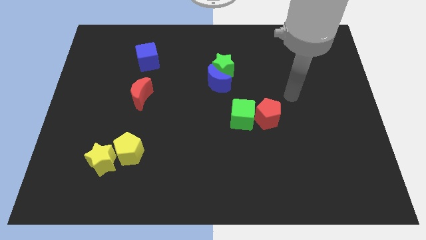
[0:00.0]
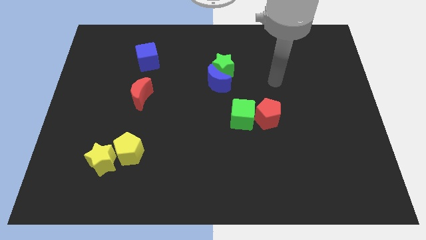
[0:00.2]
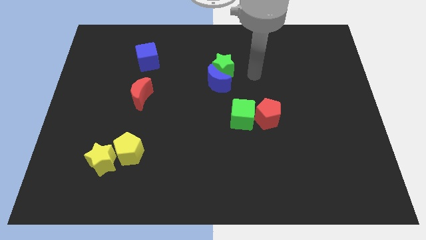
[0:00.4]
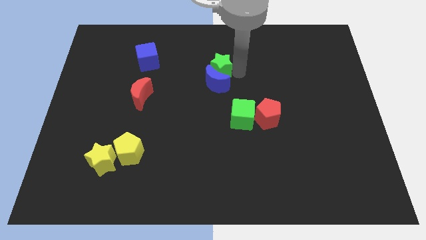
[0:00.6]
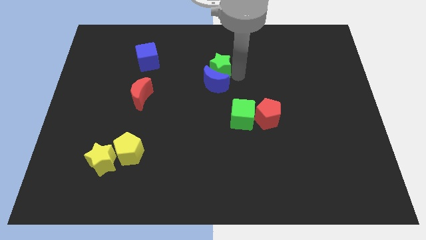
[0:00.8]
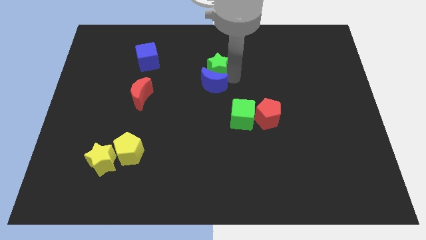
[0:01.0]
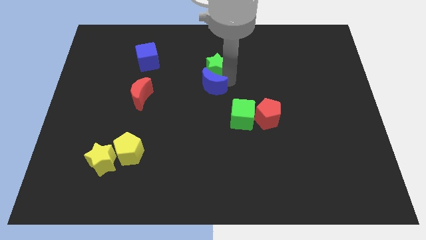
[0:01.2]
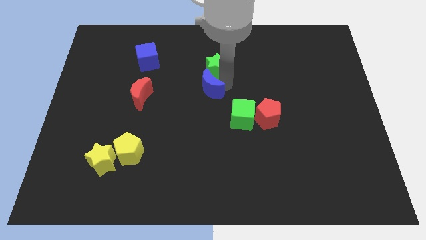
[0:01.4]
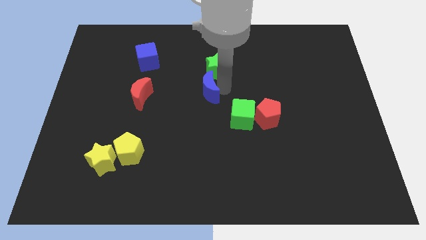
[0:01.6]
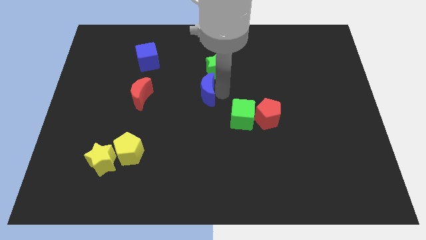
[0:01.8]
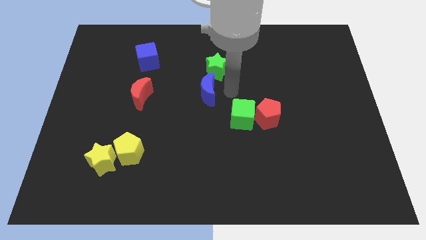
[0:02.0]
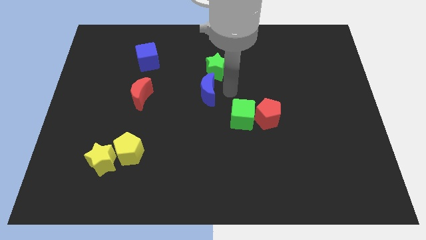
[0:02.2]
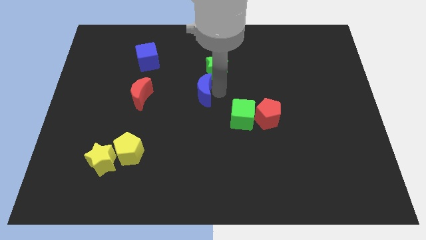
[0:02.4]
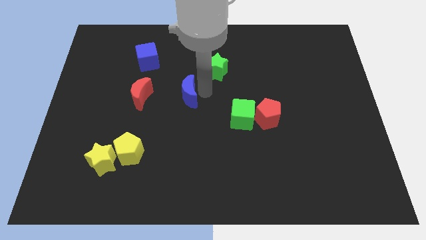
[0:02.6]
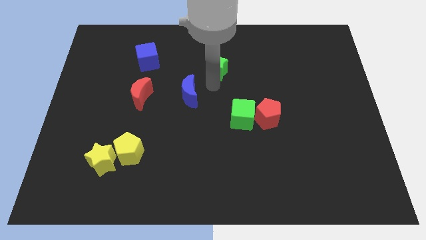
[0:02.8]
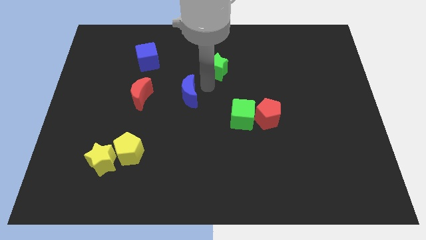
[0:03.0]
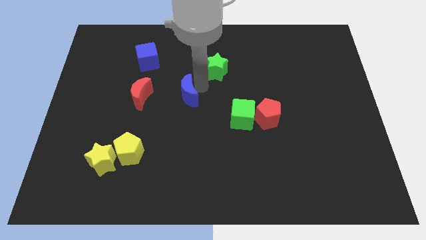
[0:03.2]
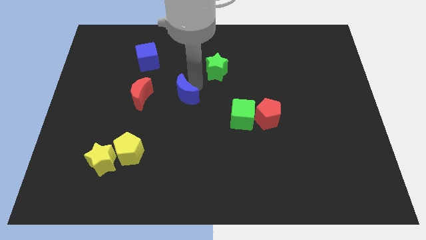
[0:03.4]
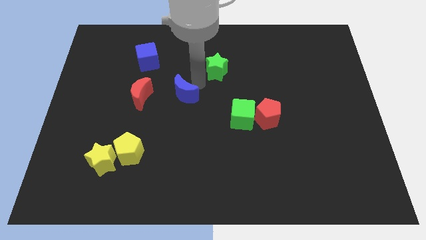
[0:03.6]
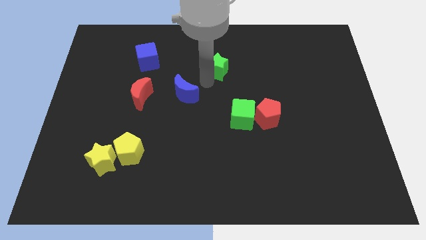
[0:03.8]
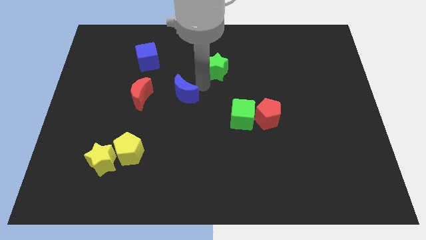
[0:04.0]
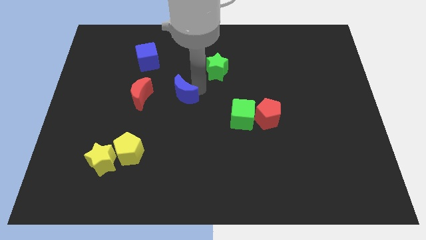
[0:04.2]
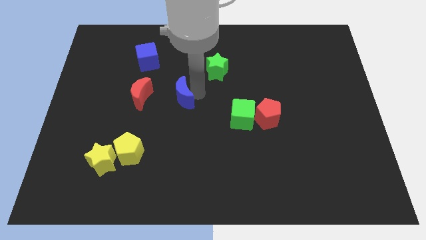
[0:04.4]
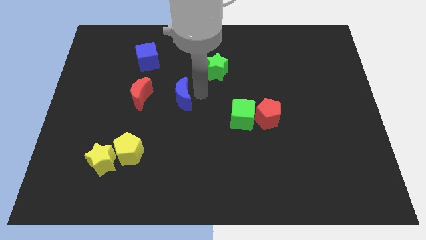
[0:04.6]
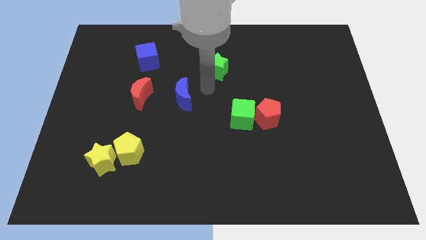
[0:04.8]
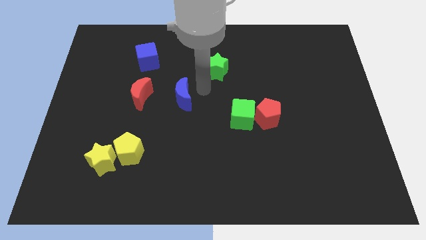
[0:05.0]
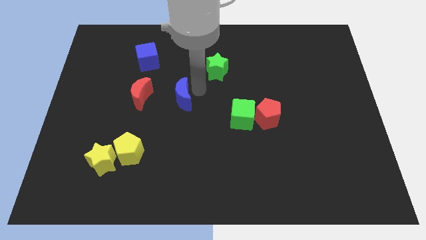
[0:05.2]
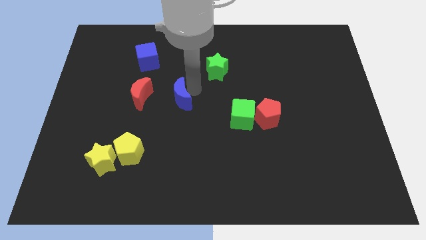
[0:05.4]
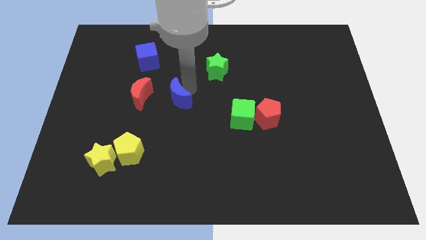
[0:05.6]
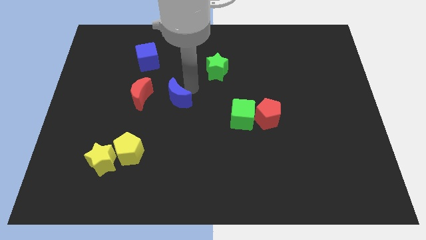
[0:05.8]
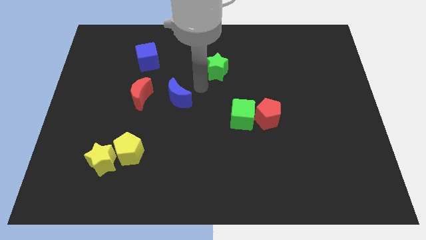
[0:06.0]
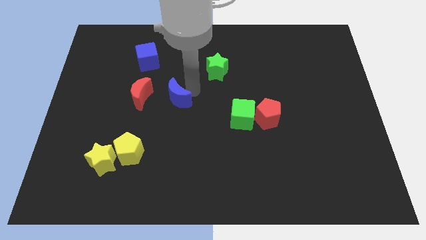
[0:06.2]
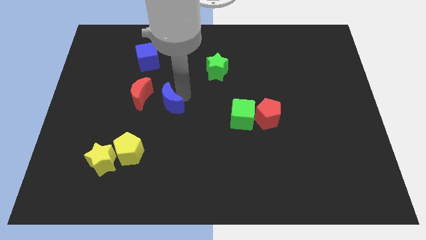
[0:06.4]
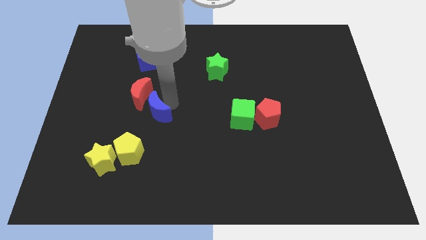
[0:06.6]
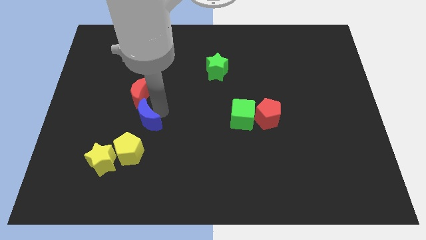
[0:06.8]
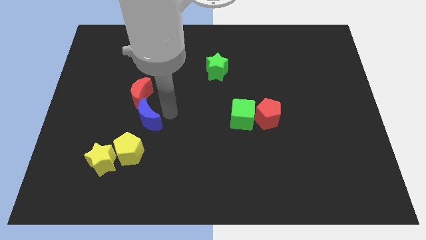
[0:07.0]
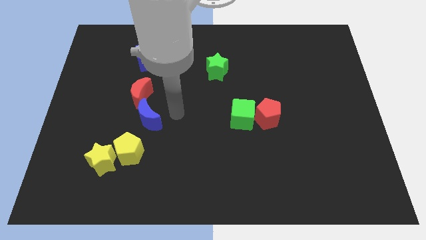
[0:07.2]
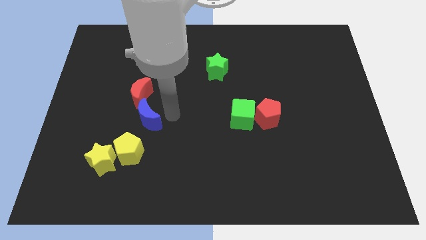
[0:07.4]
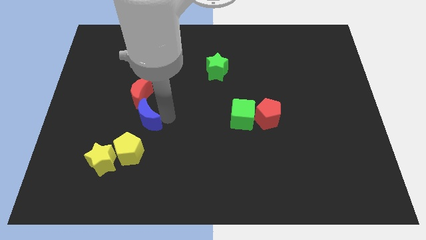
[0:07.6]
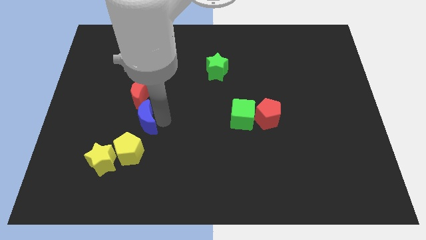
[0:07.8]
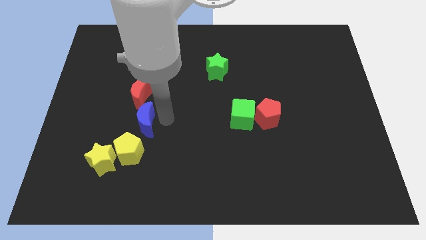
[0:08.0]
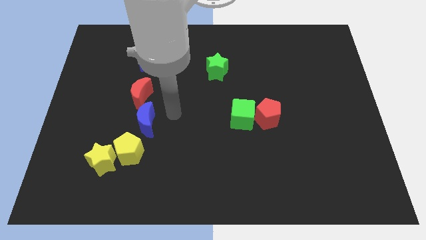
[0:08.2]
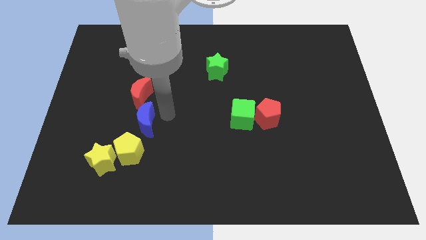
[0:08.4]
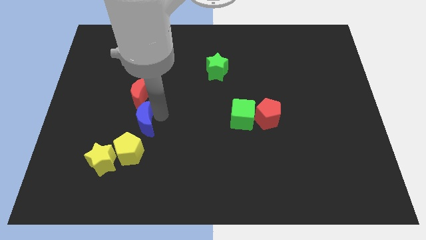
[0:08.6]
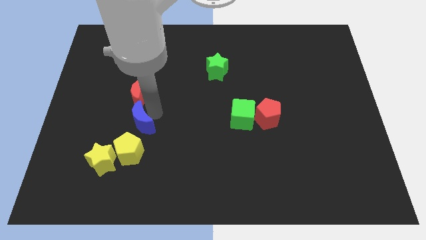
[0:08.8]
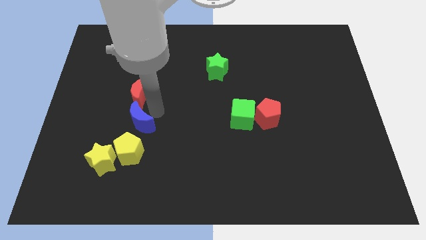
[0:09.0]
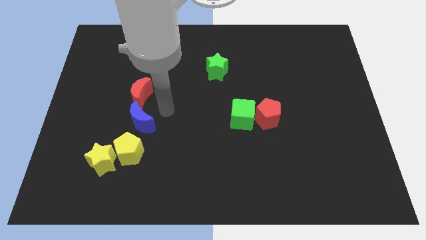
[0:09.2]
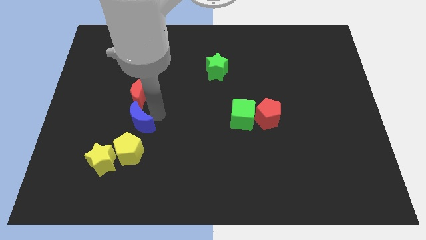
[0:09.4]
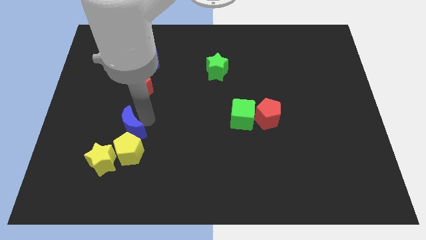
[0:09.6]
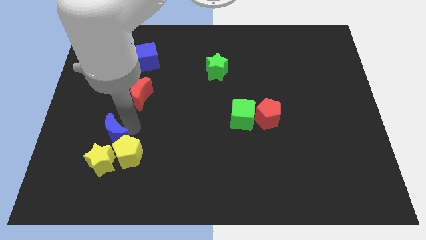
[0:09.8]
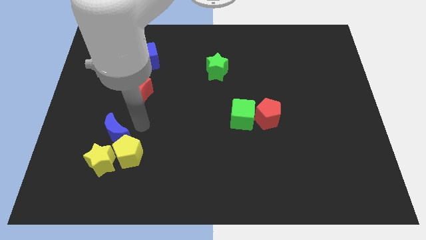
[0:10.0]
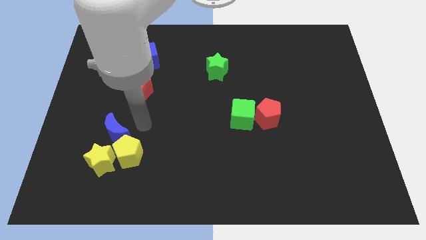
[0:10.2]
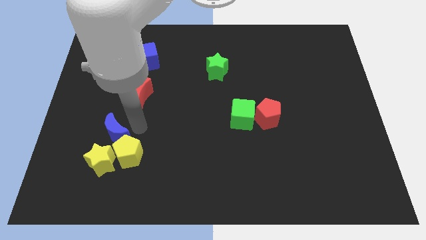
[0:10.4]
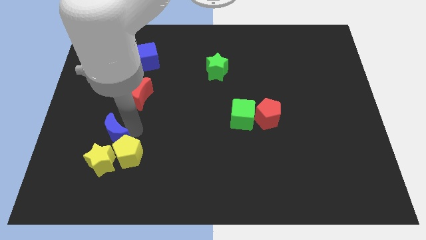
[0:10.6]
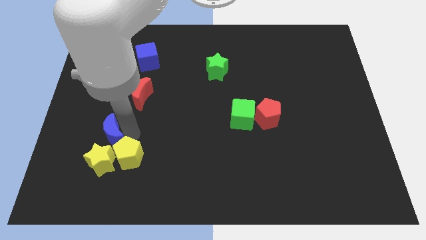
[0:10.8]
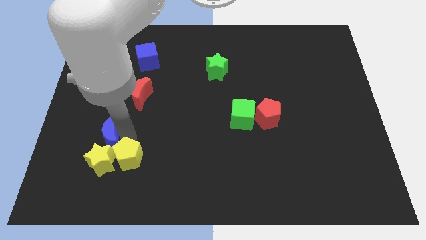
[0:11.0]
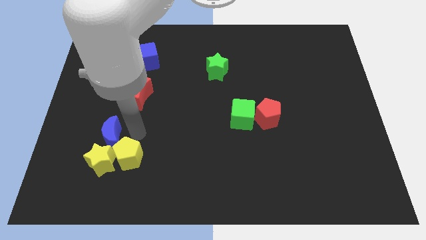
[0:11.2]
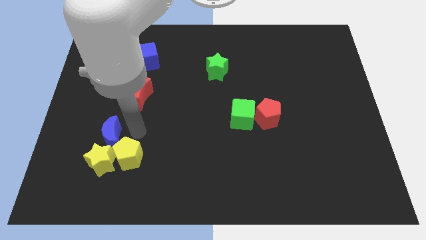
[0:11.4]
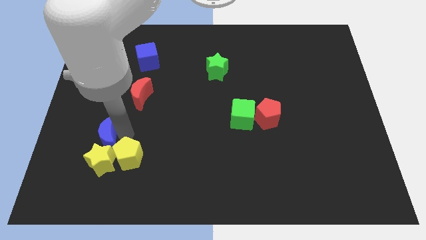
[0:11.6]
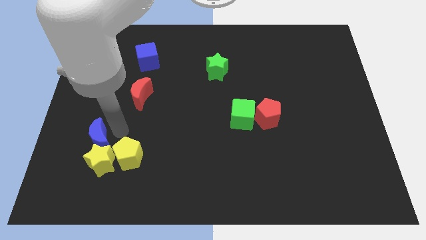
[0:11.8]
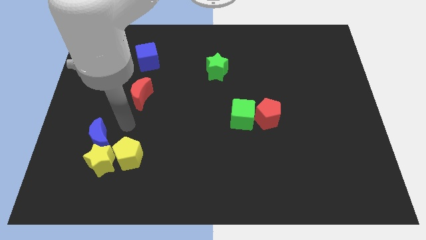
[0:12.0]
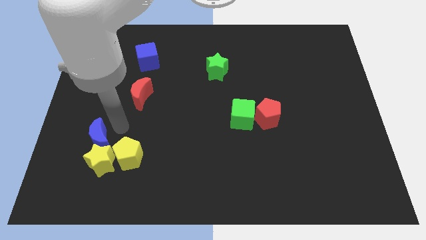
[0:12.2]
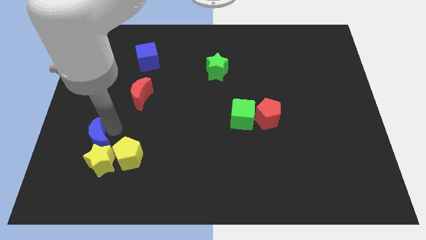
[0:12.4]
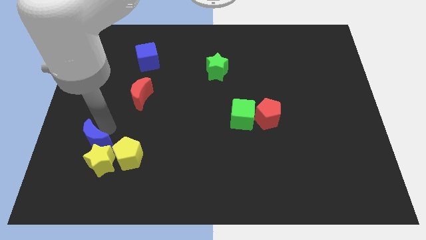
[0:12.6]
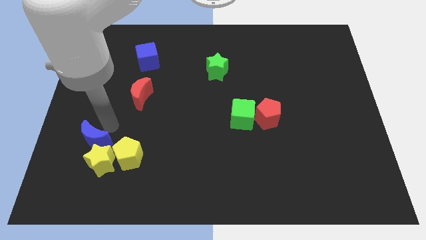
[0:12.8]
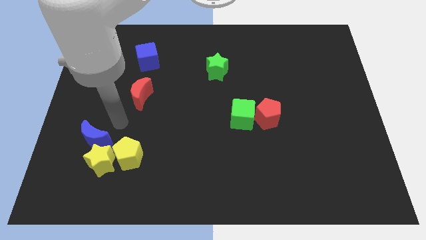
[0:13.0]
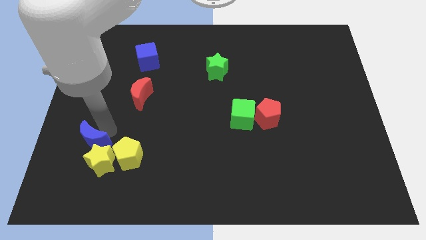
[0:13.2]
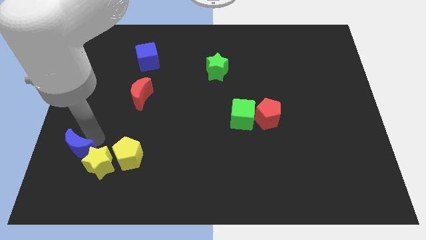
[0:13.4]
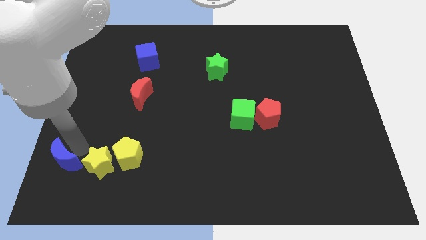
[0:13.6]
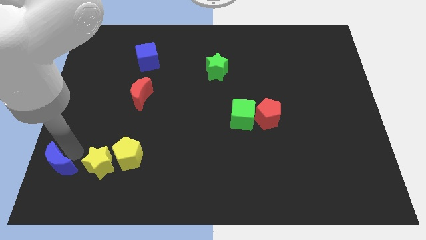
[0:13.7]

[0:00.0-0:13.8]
push the blue moon to the bottom left of the board
